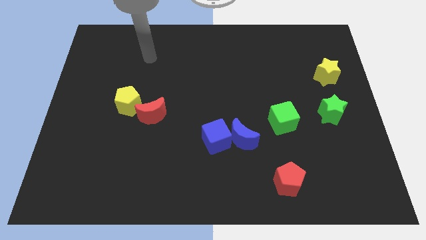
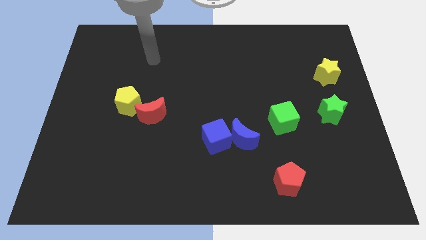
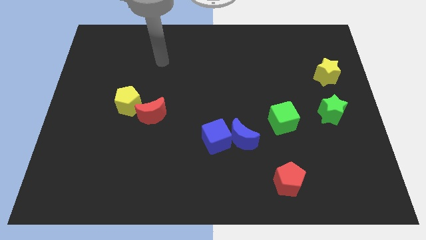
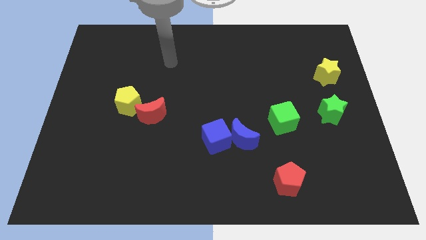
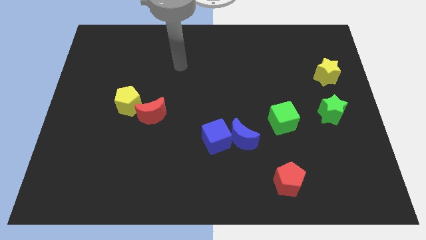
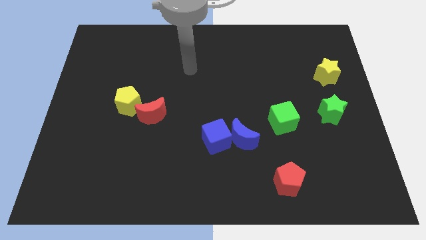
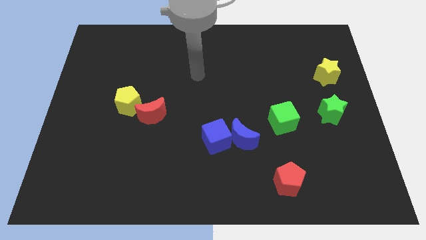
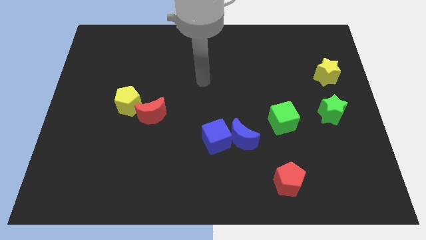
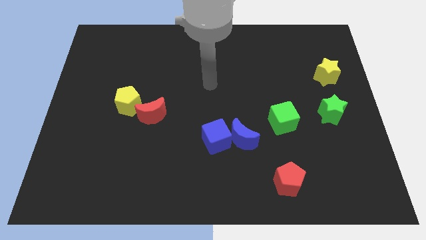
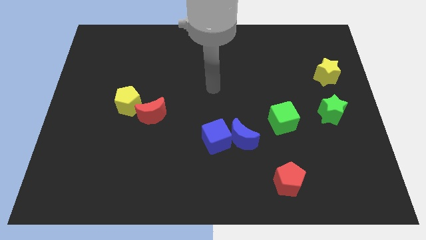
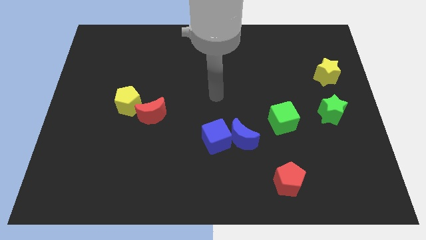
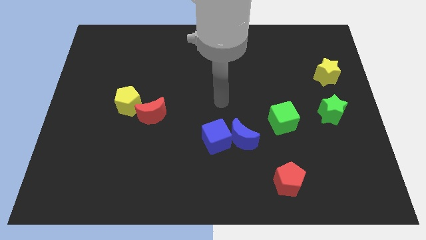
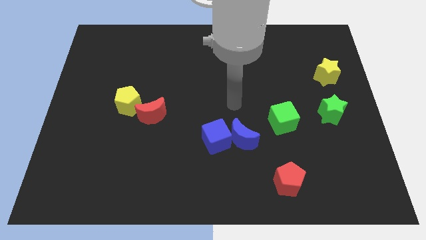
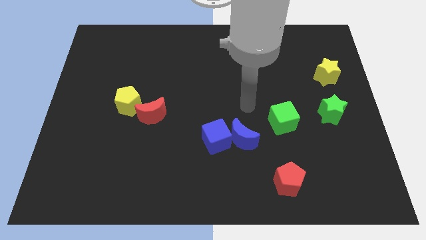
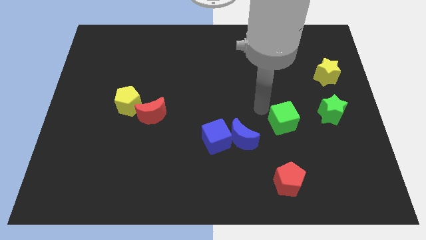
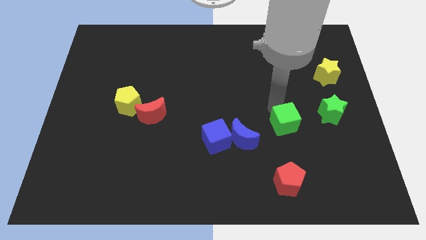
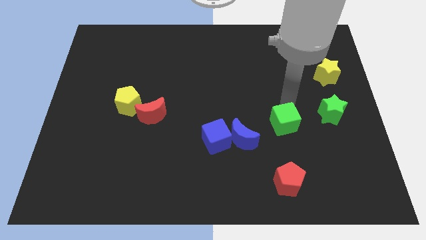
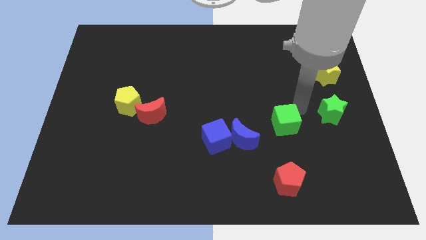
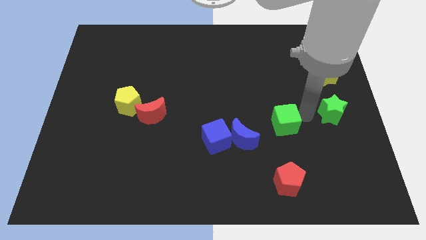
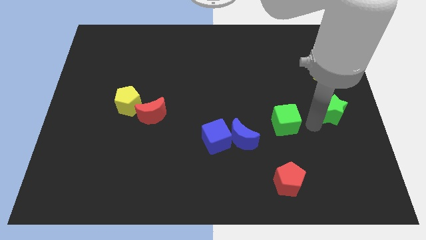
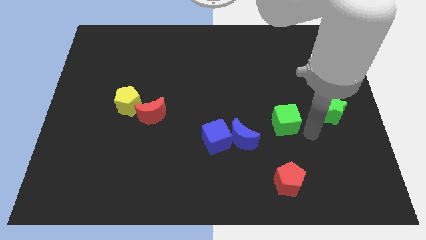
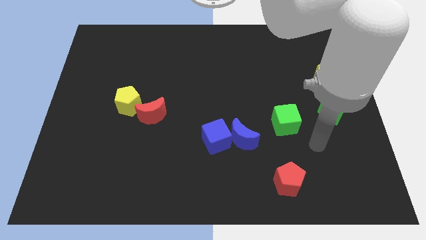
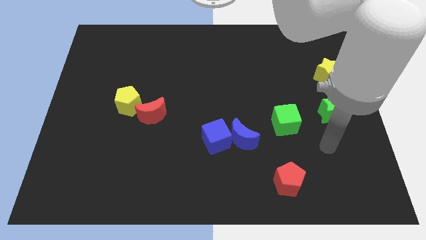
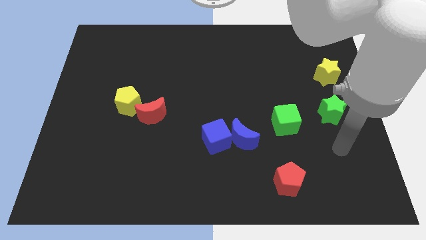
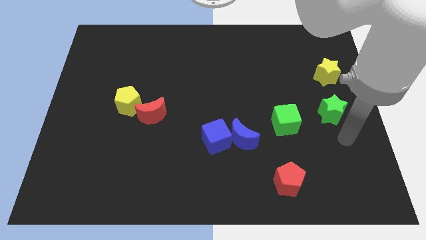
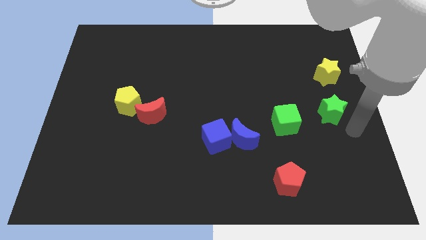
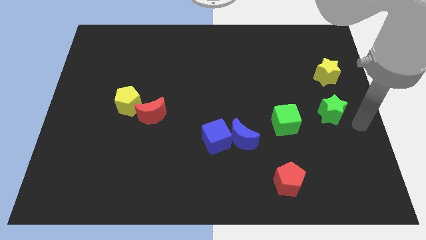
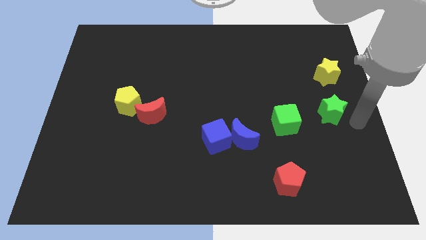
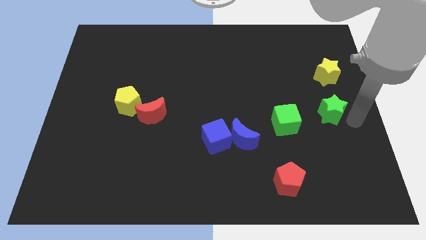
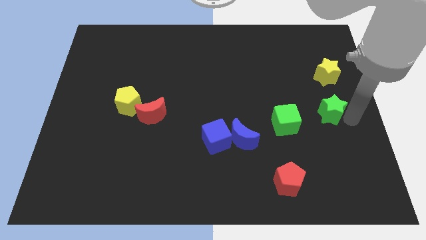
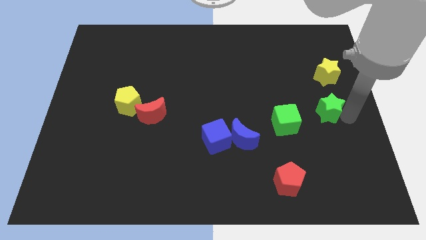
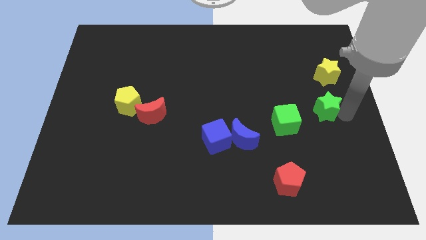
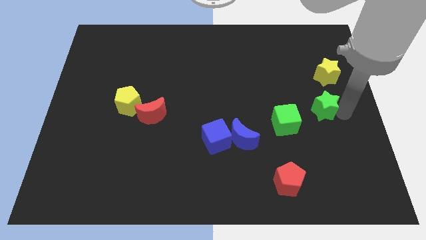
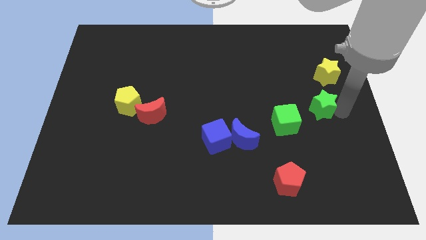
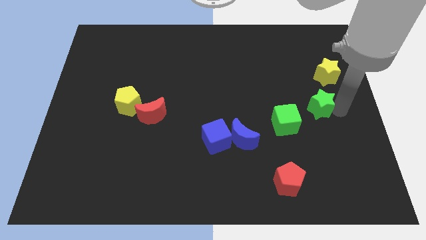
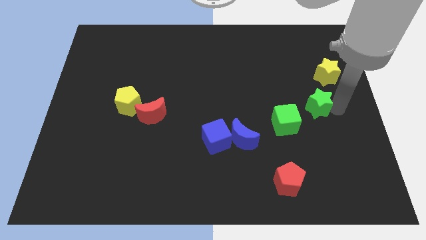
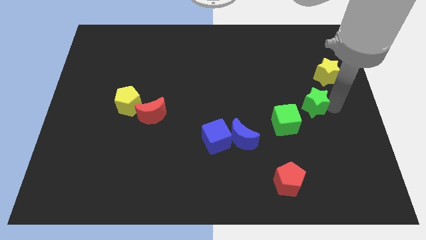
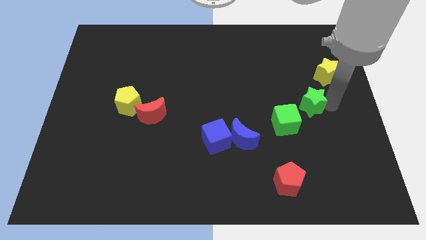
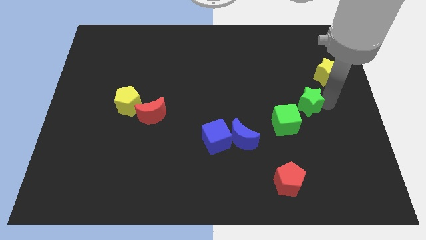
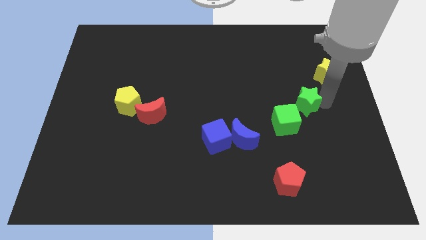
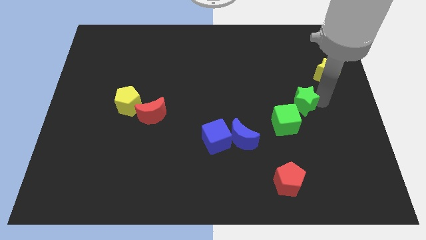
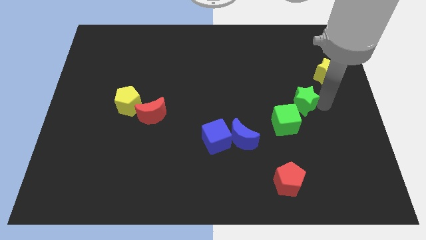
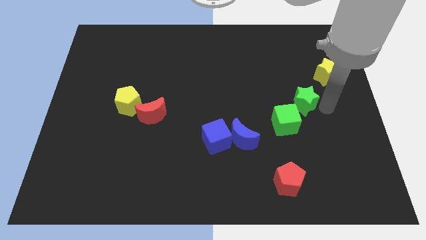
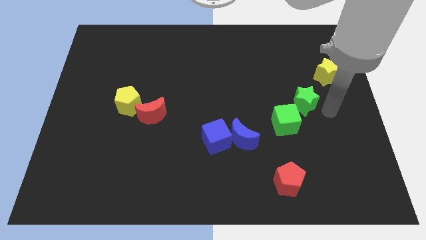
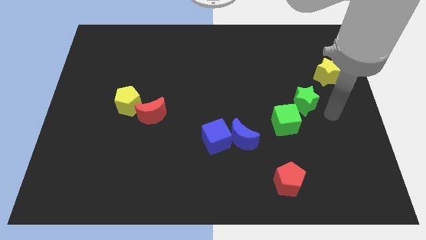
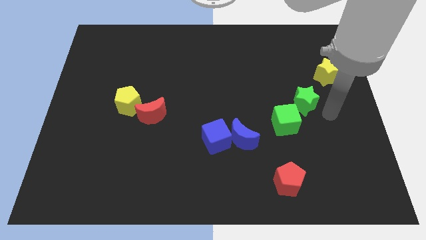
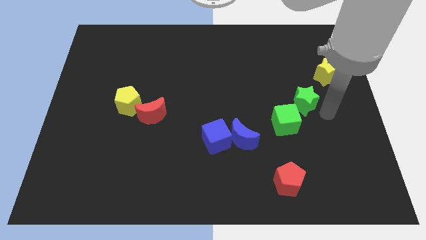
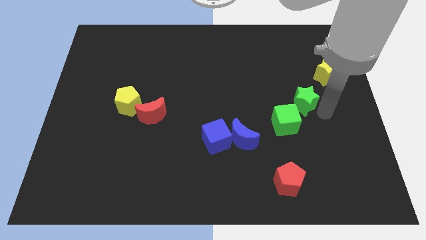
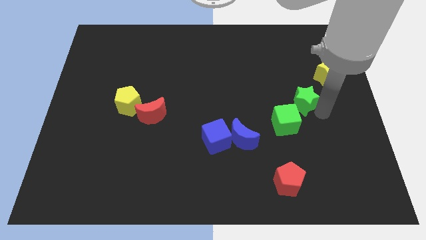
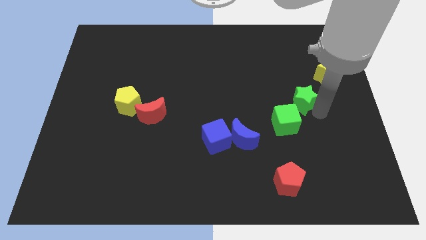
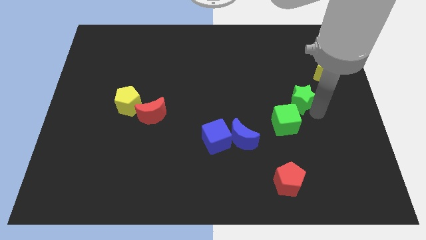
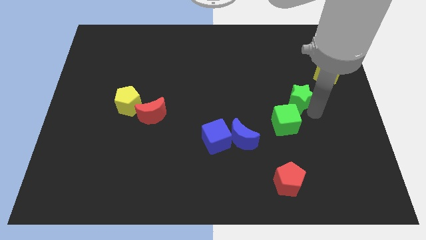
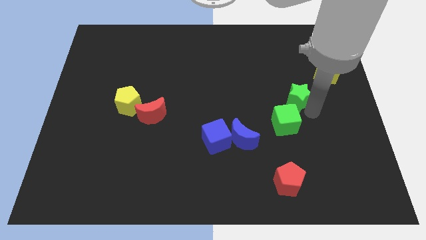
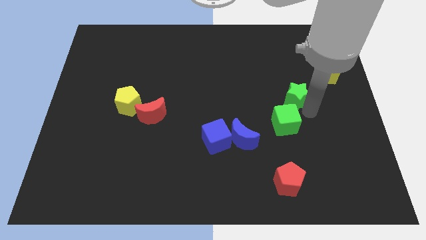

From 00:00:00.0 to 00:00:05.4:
move the green star to the left a little bit

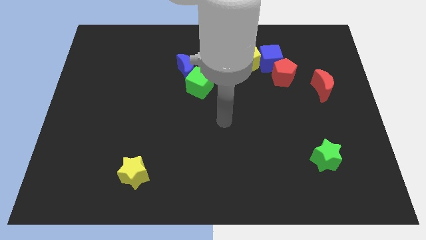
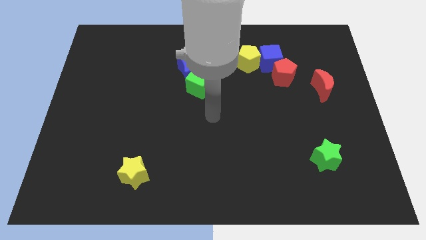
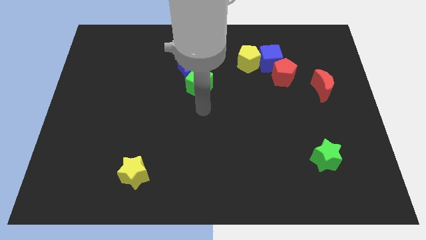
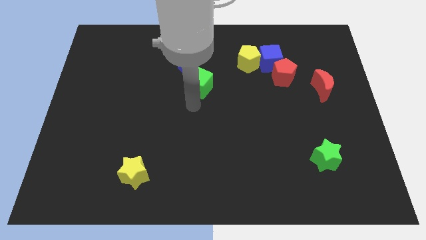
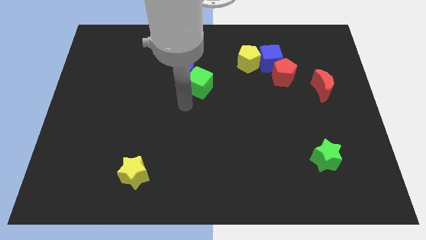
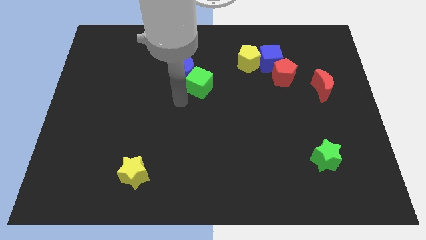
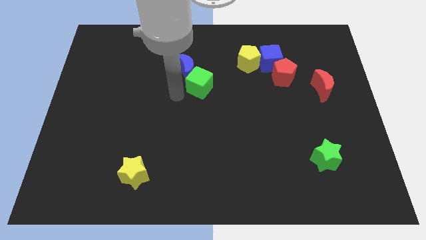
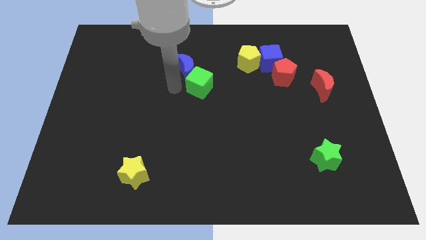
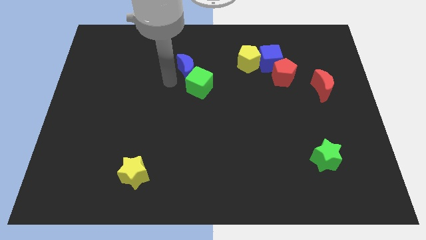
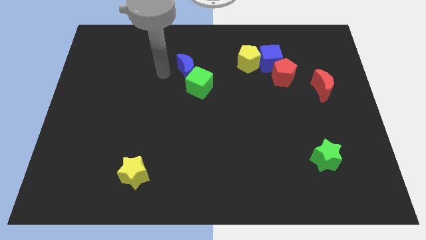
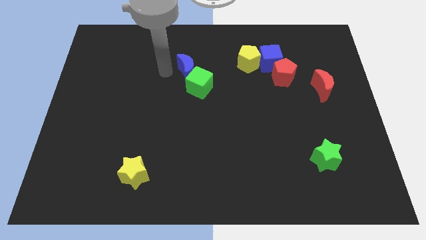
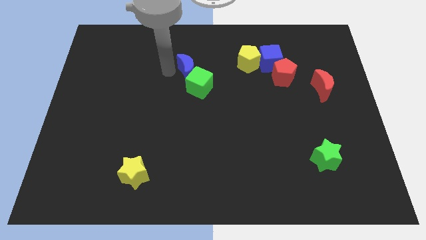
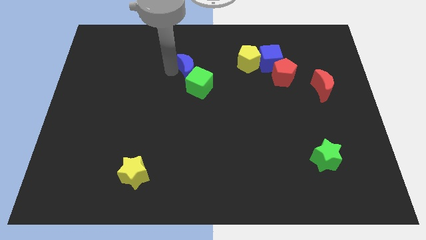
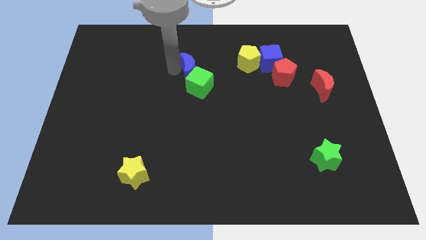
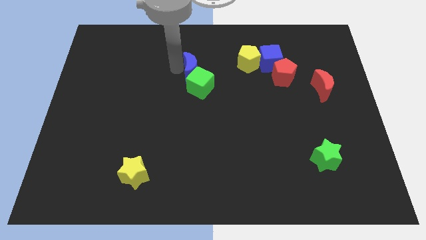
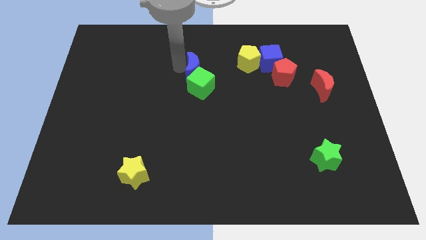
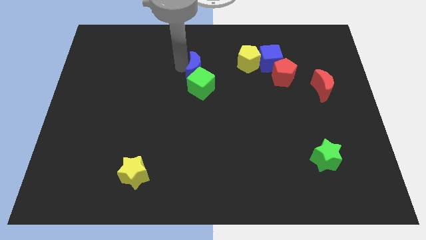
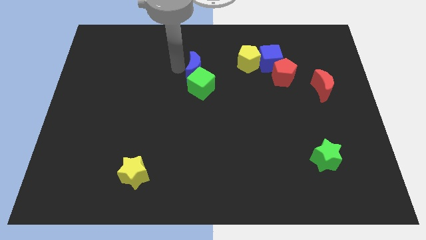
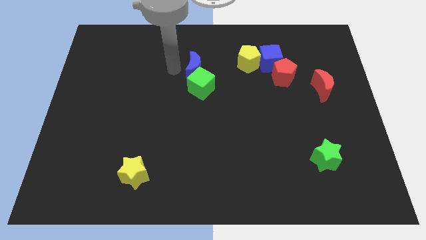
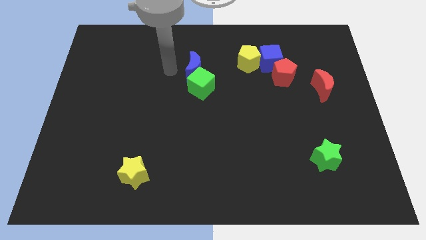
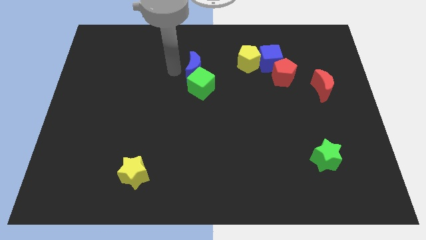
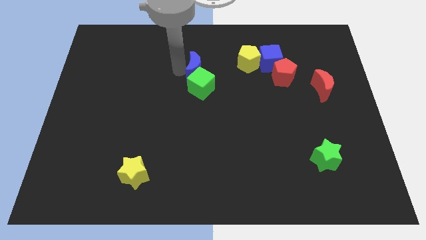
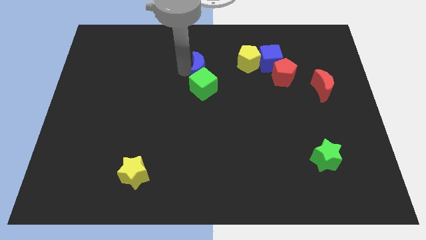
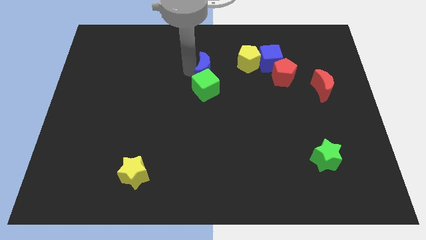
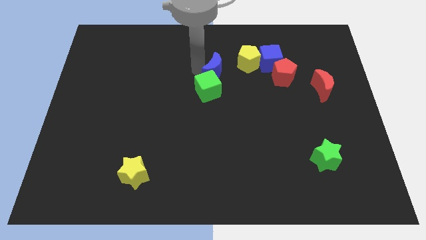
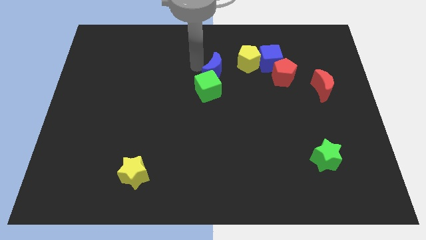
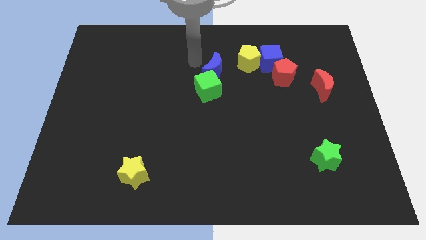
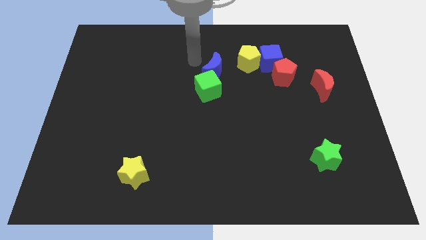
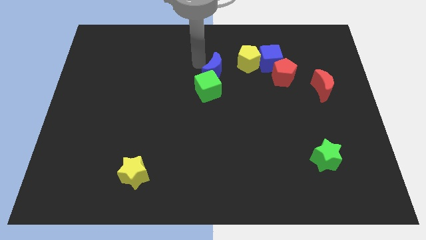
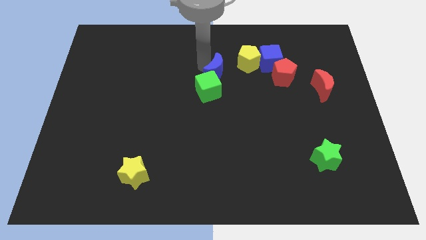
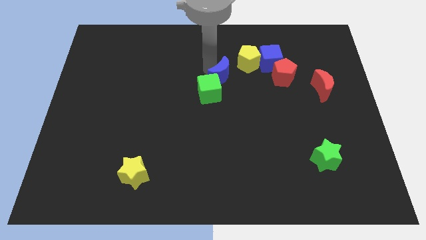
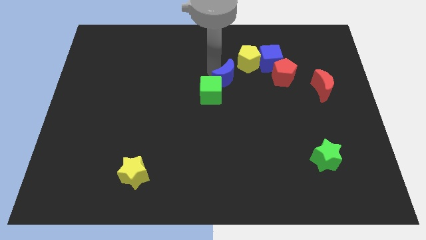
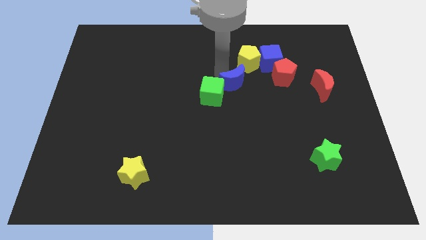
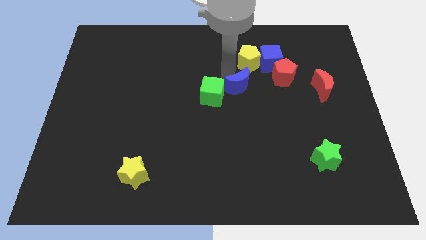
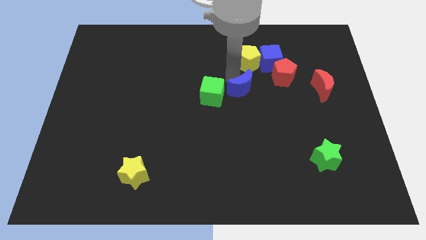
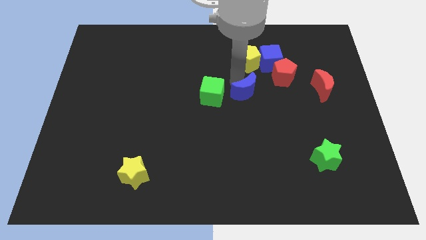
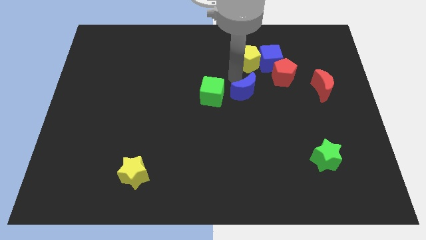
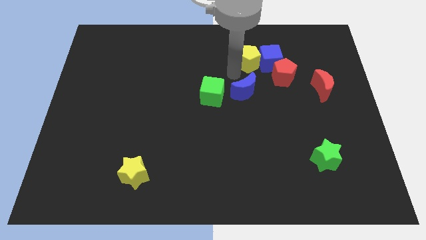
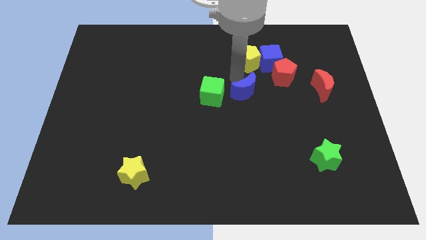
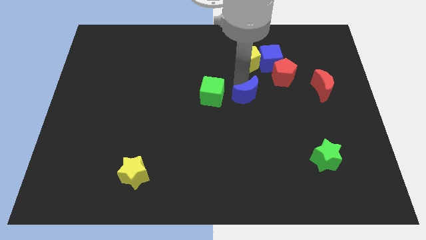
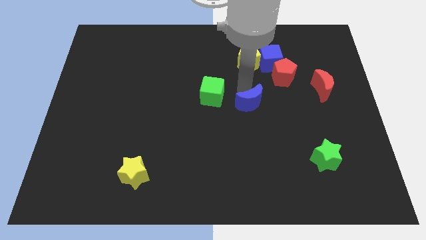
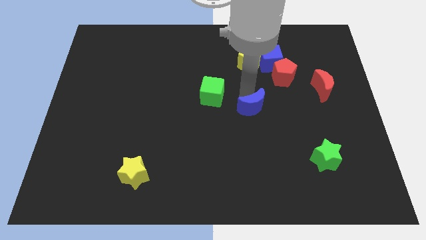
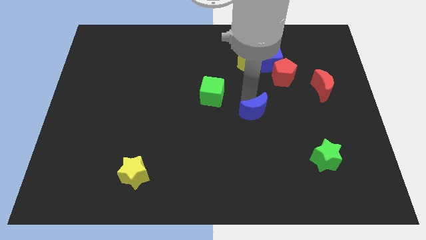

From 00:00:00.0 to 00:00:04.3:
slide the blue moon down and then right
